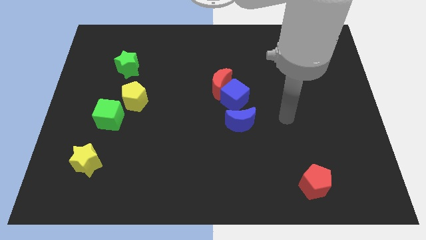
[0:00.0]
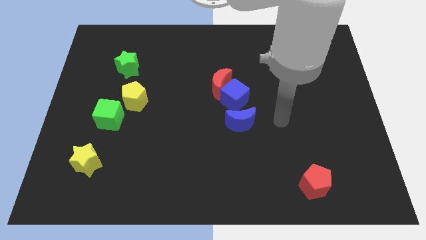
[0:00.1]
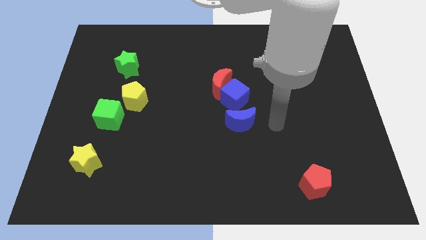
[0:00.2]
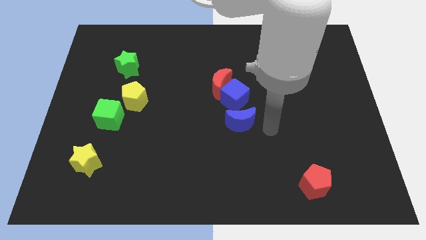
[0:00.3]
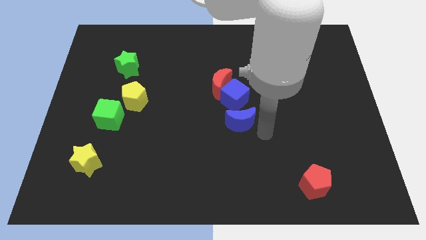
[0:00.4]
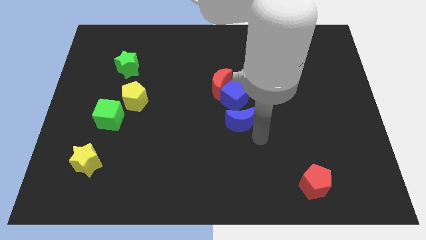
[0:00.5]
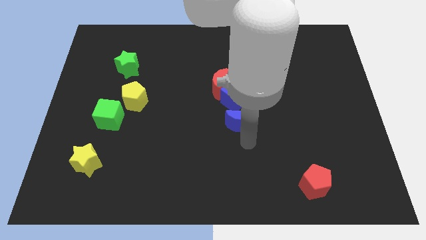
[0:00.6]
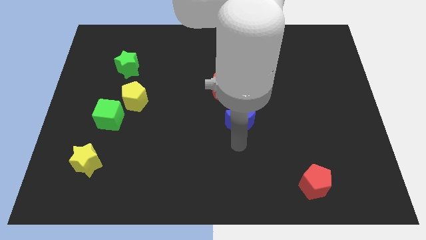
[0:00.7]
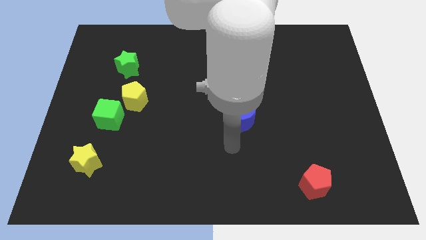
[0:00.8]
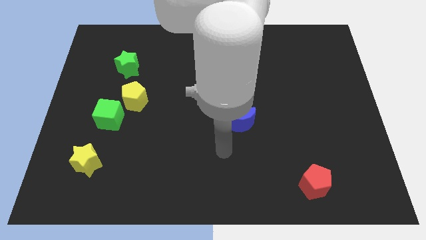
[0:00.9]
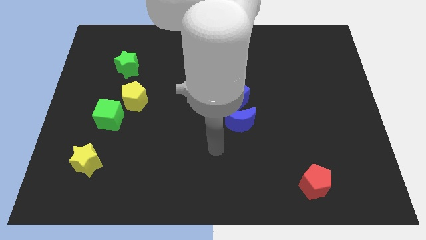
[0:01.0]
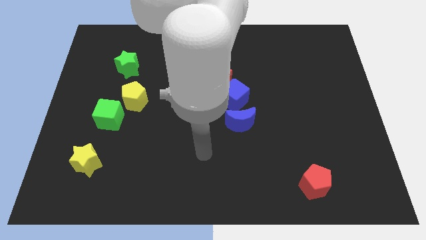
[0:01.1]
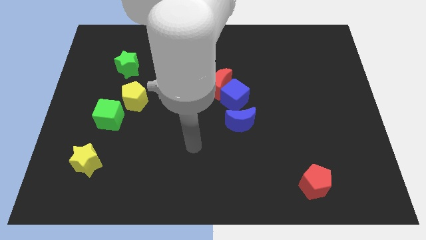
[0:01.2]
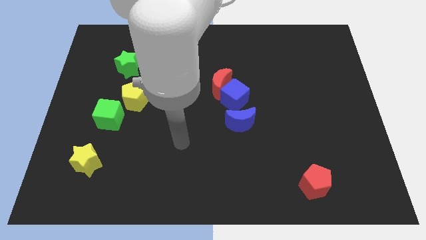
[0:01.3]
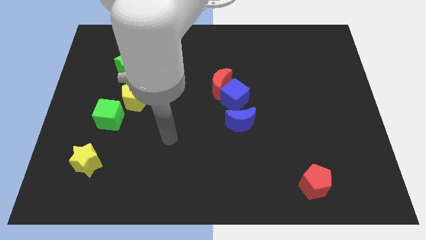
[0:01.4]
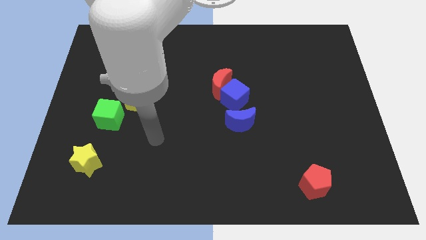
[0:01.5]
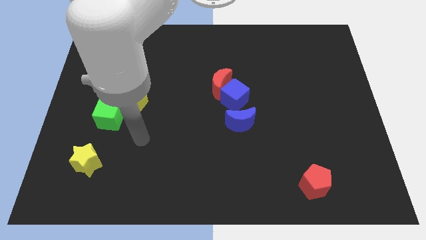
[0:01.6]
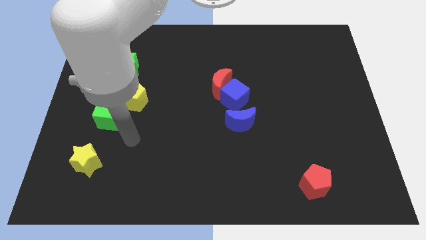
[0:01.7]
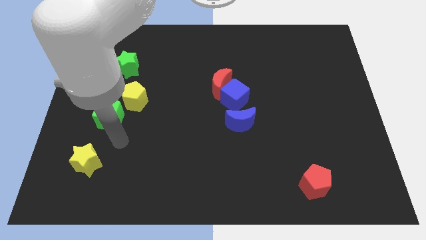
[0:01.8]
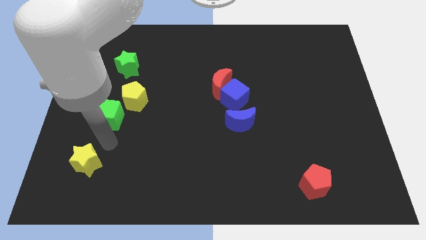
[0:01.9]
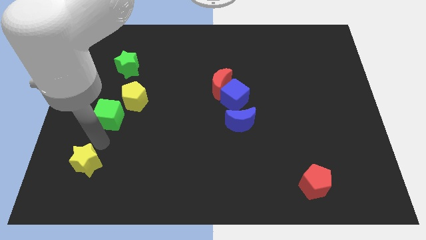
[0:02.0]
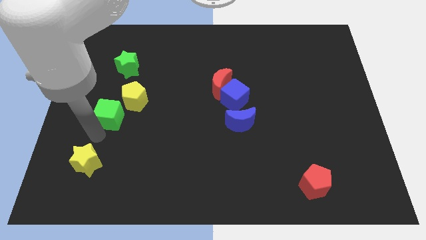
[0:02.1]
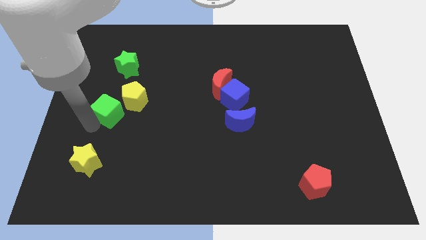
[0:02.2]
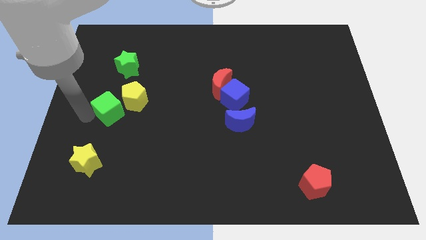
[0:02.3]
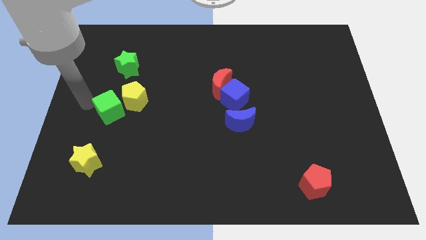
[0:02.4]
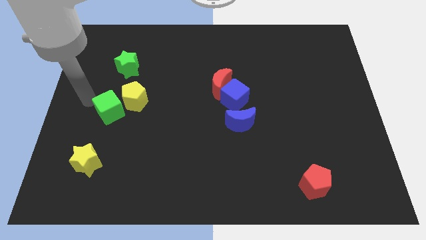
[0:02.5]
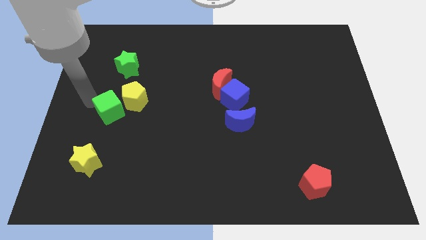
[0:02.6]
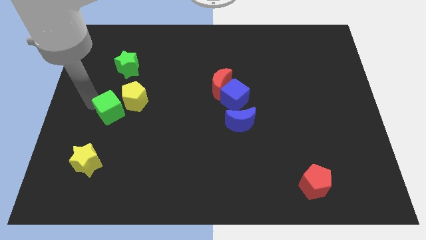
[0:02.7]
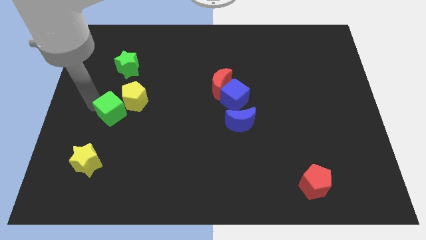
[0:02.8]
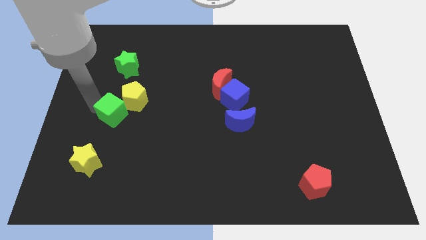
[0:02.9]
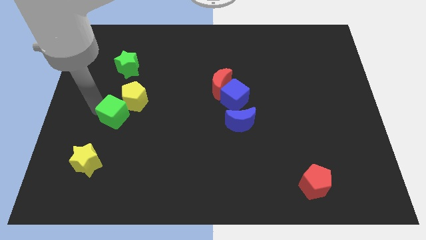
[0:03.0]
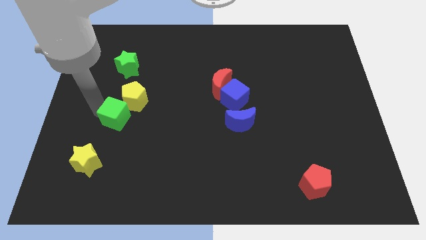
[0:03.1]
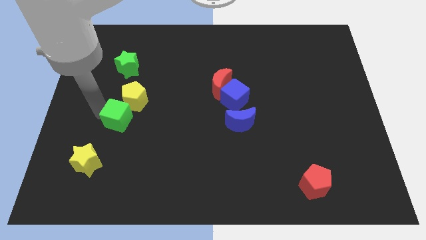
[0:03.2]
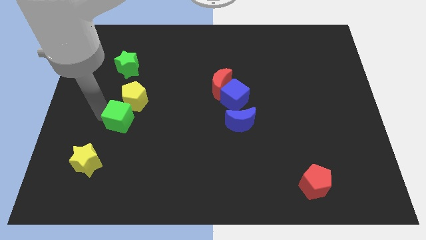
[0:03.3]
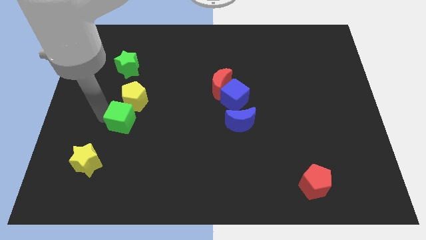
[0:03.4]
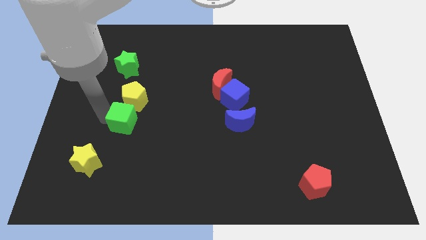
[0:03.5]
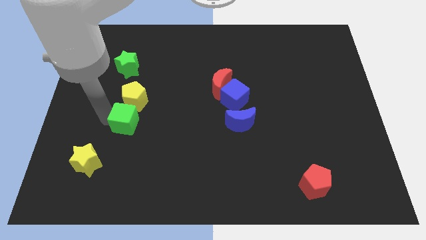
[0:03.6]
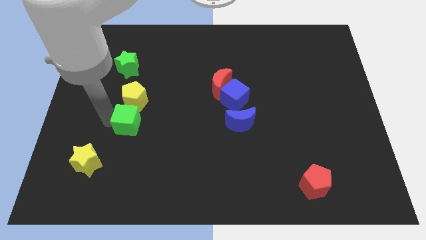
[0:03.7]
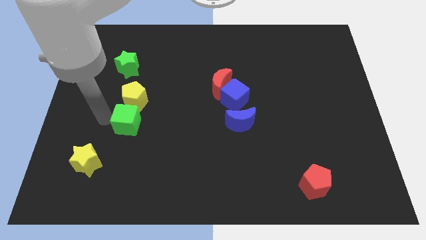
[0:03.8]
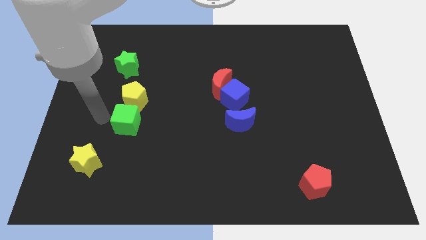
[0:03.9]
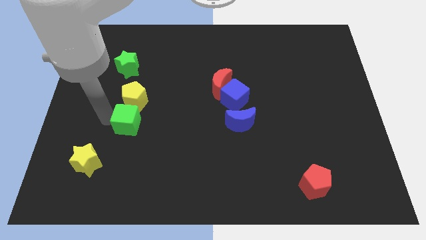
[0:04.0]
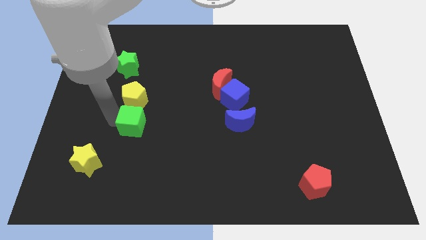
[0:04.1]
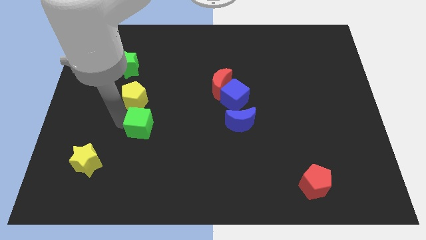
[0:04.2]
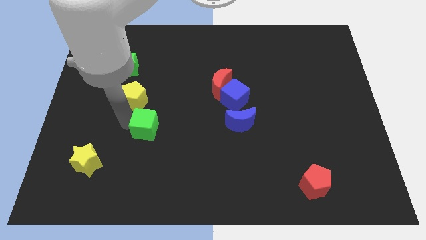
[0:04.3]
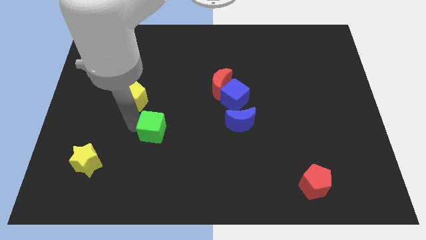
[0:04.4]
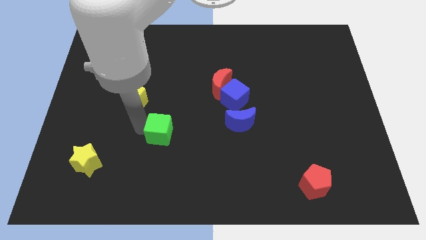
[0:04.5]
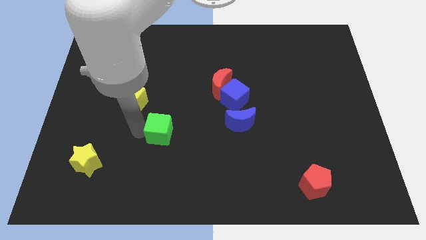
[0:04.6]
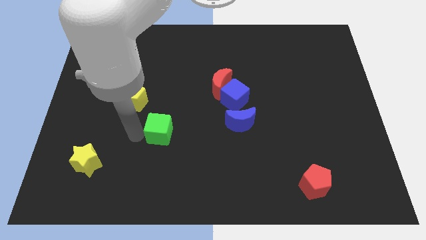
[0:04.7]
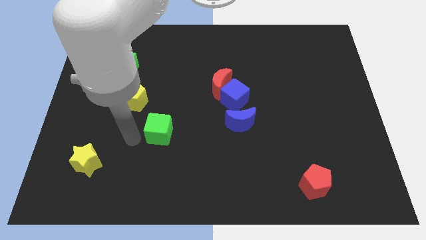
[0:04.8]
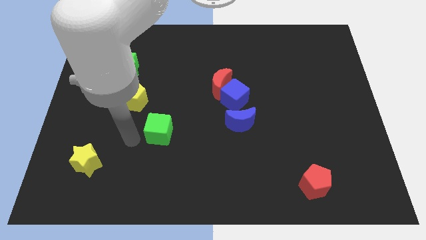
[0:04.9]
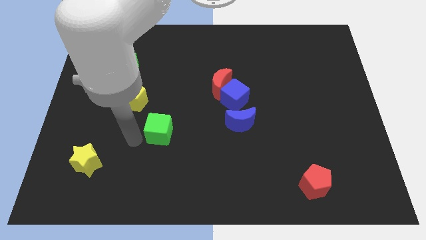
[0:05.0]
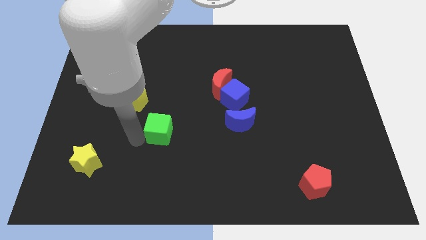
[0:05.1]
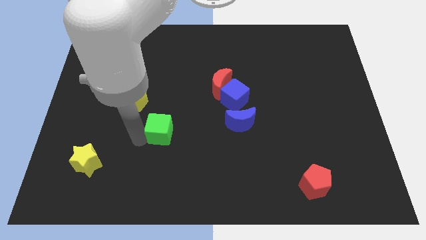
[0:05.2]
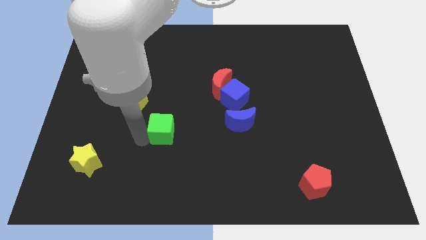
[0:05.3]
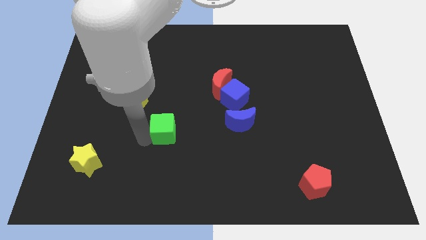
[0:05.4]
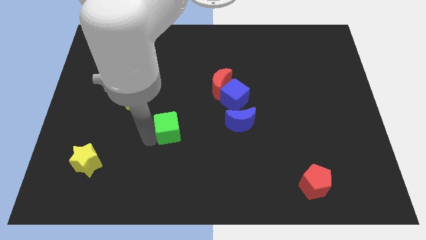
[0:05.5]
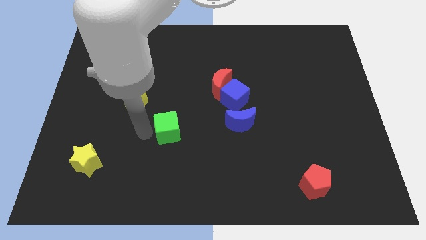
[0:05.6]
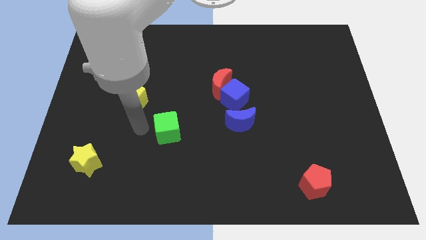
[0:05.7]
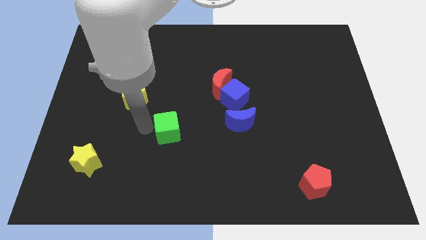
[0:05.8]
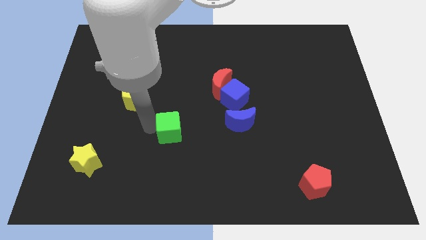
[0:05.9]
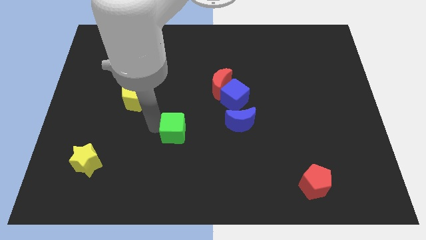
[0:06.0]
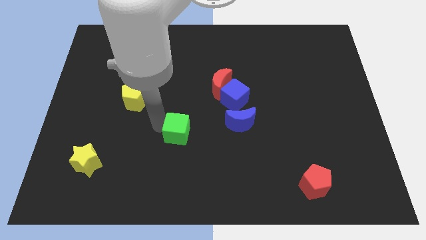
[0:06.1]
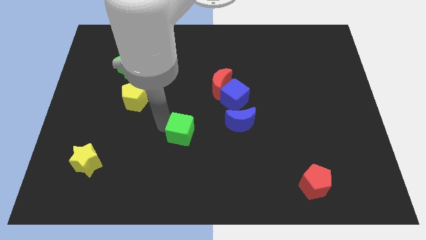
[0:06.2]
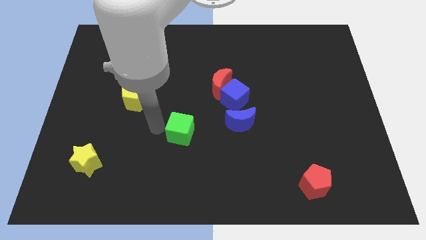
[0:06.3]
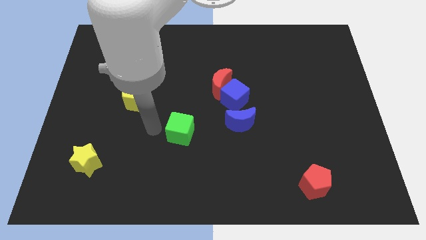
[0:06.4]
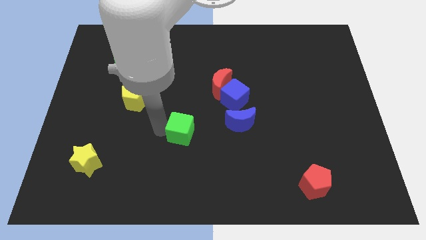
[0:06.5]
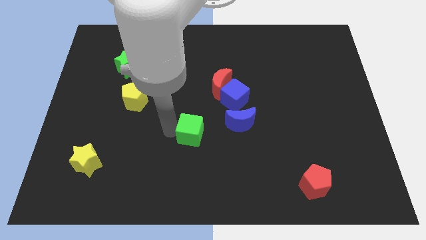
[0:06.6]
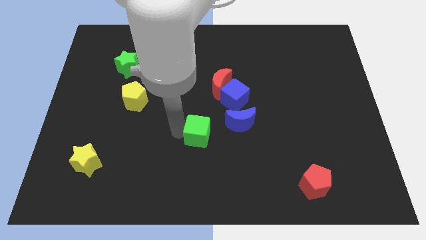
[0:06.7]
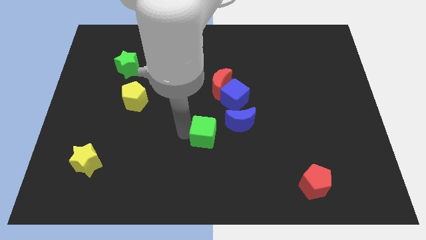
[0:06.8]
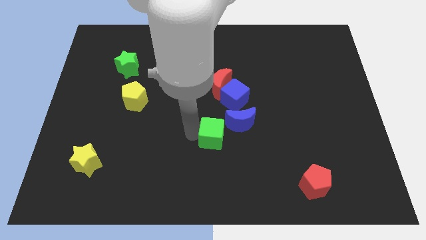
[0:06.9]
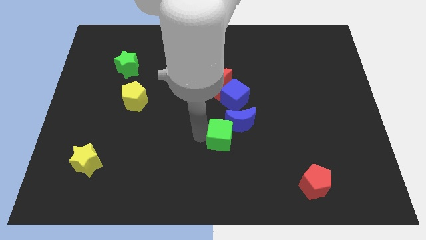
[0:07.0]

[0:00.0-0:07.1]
slide the green cube below the blue cube
